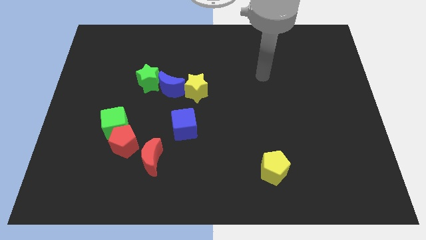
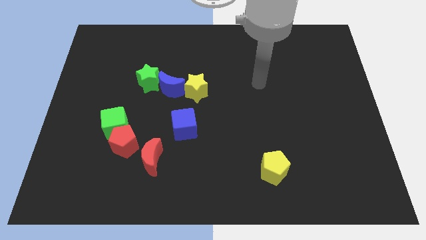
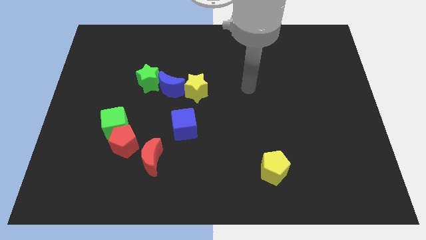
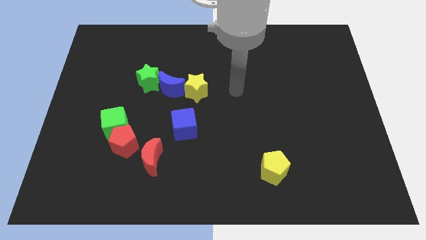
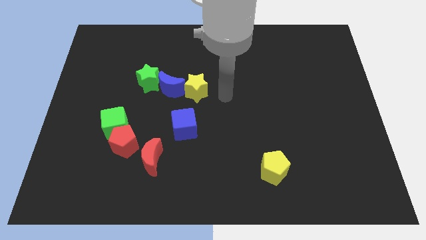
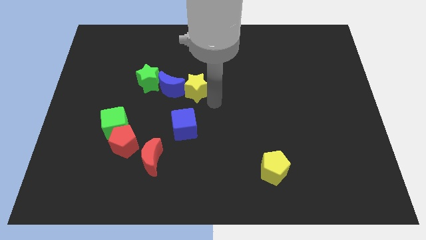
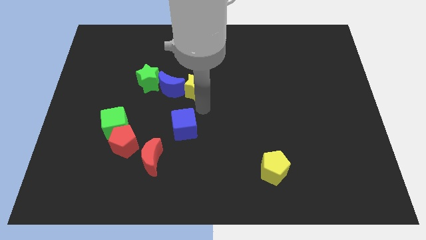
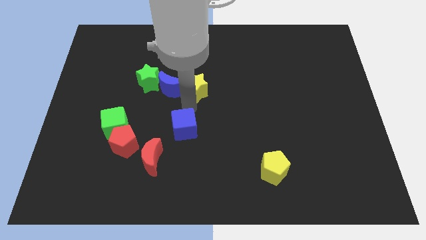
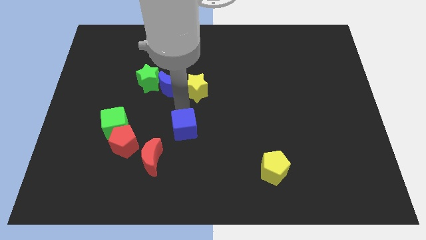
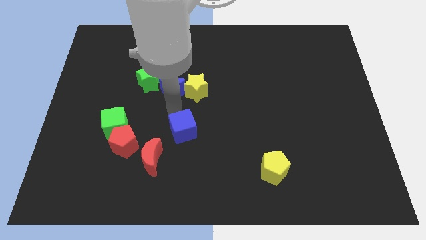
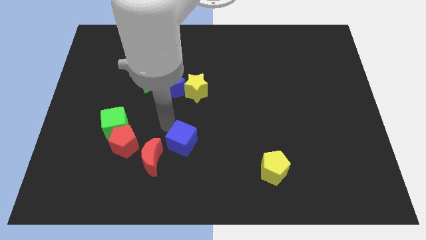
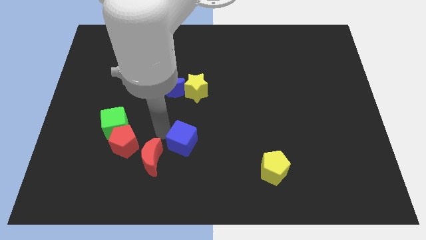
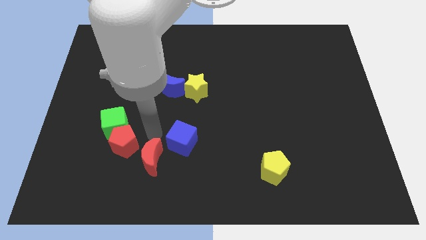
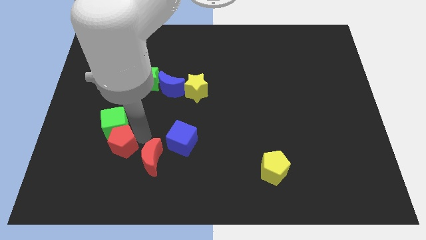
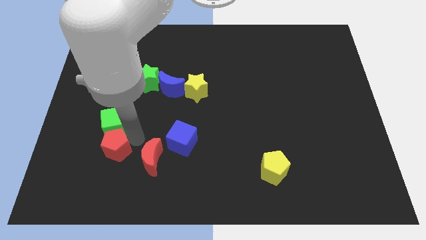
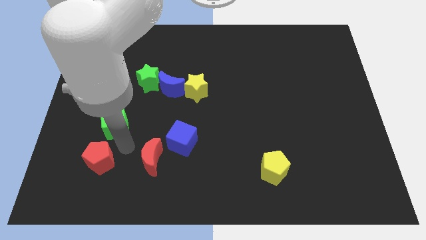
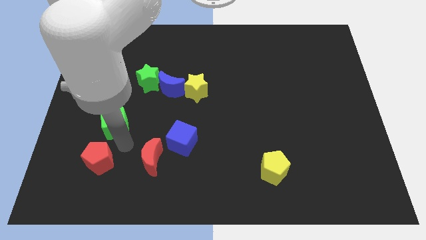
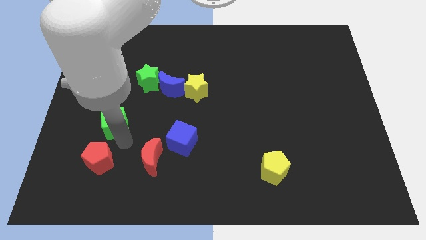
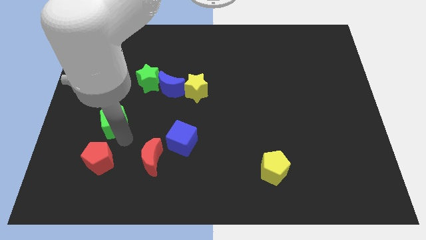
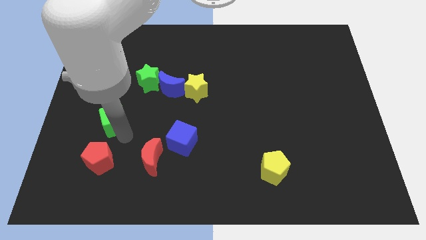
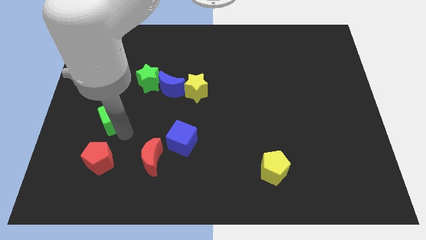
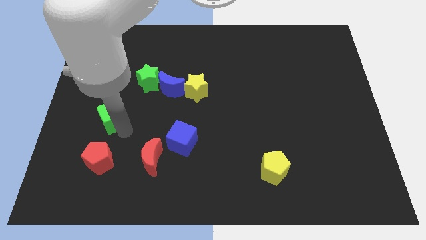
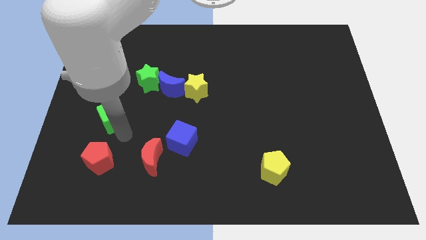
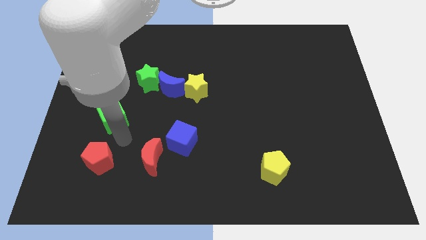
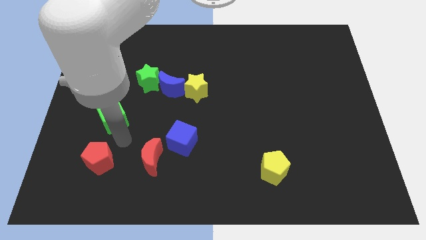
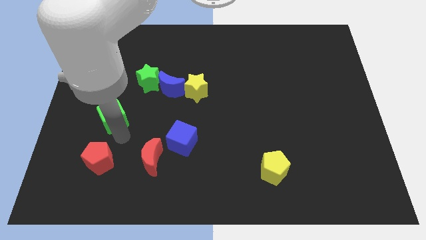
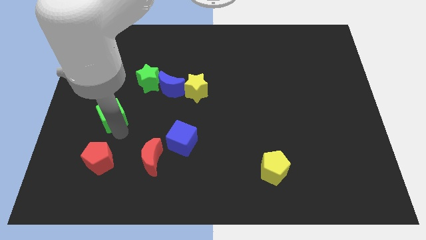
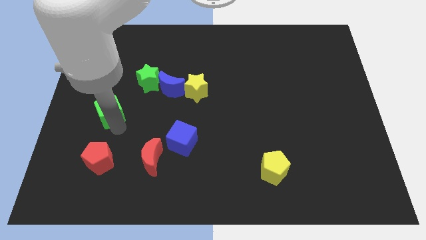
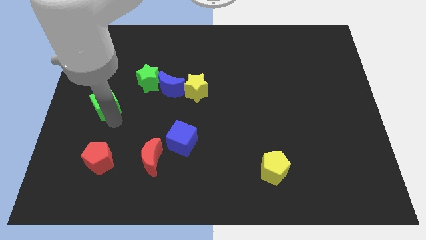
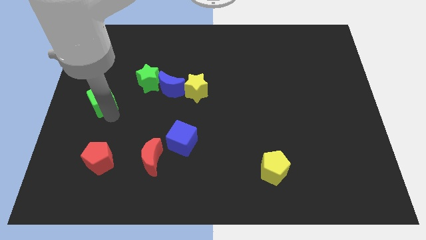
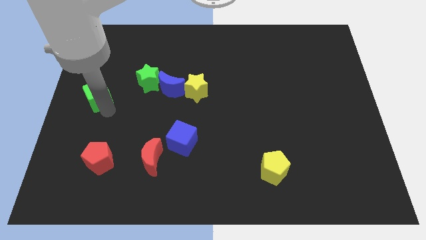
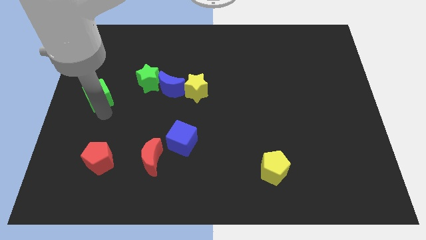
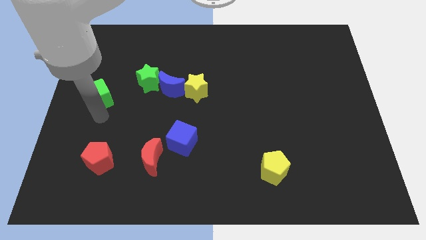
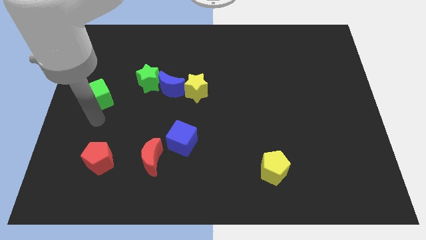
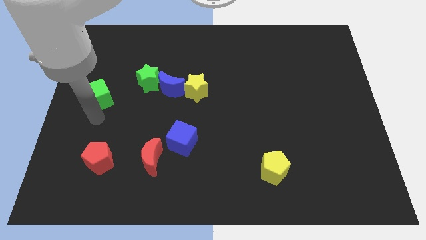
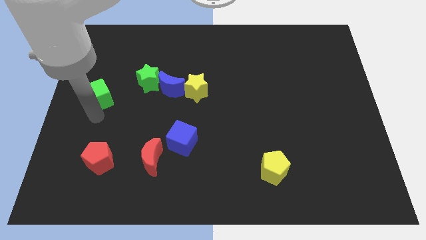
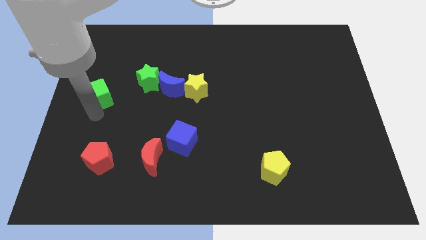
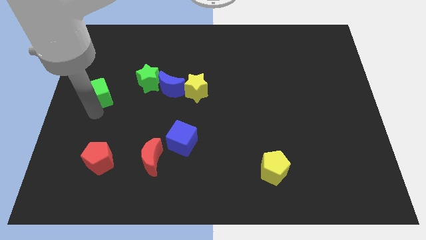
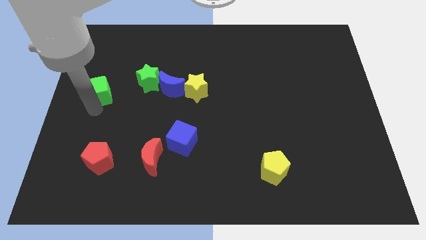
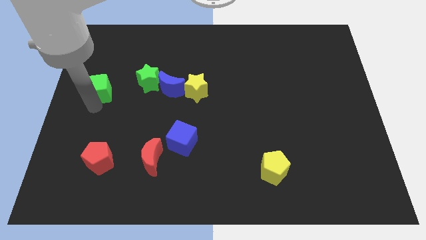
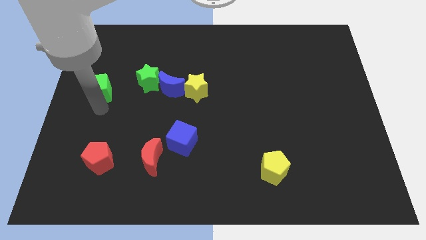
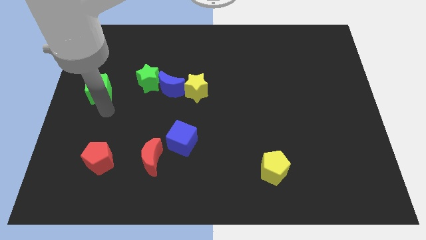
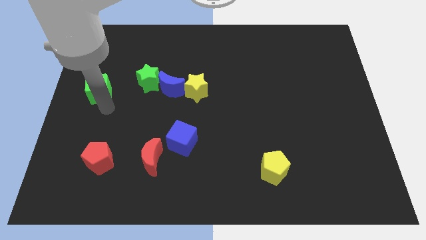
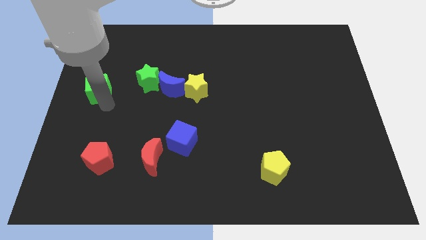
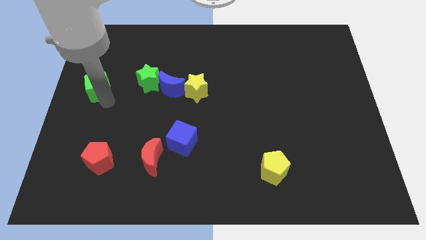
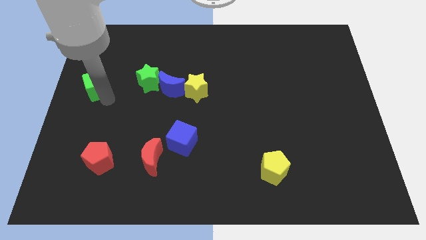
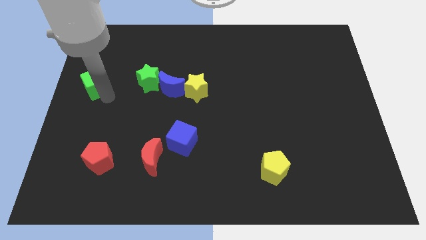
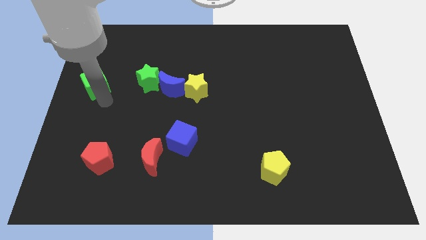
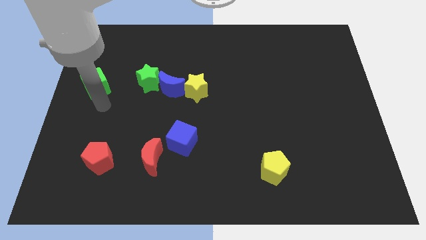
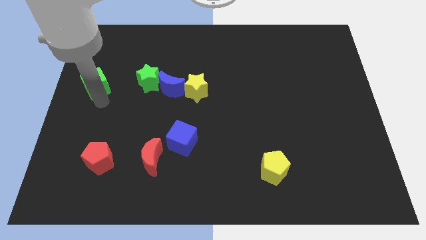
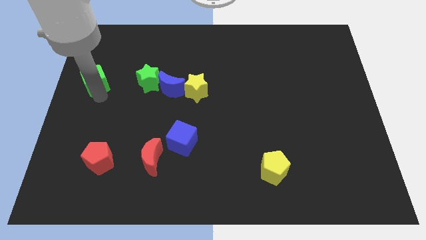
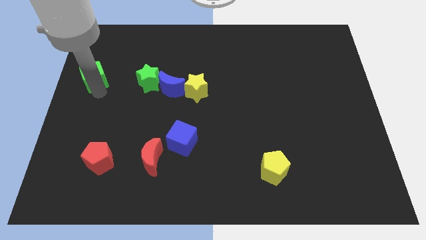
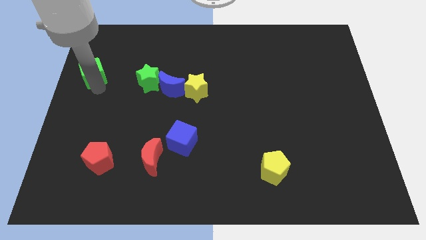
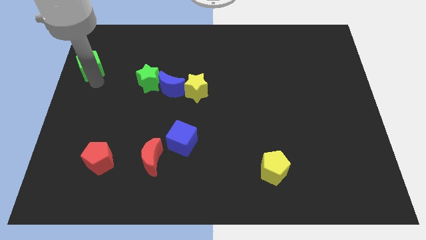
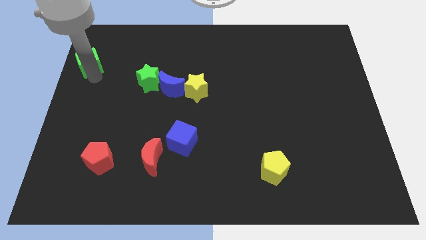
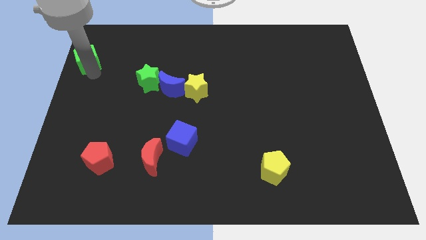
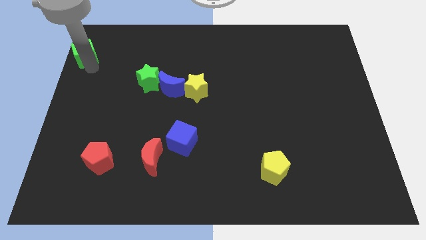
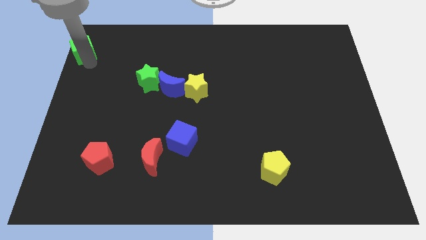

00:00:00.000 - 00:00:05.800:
slide the green cube to the upper left corner

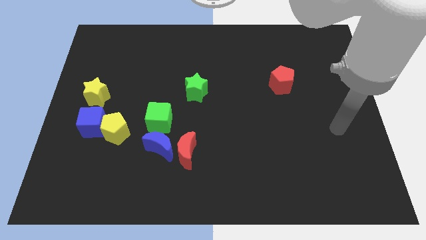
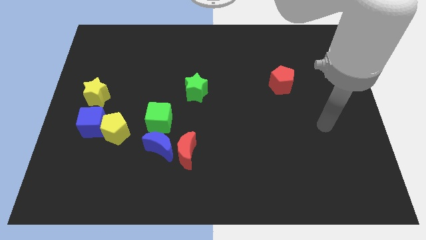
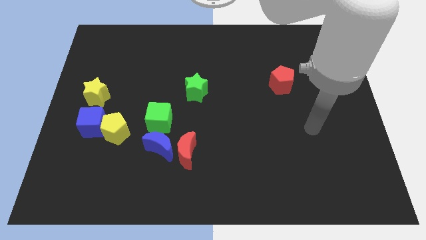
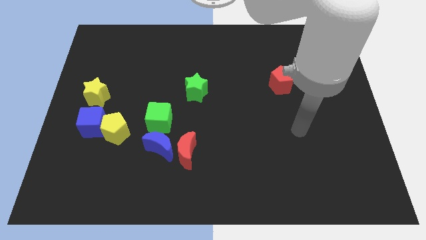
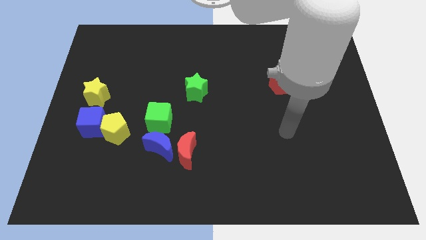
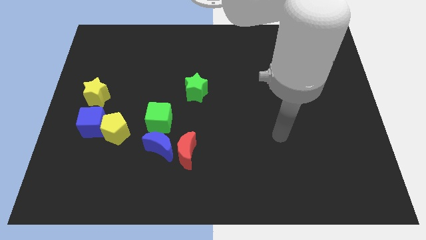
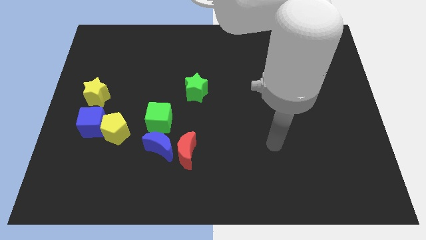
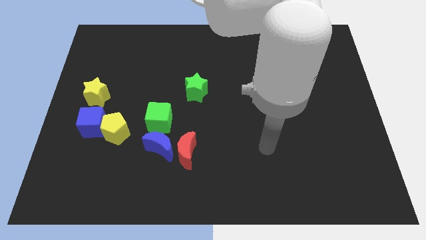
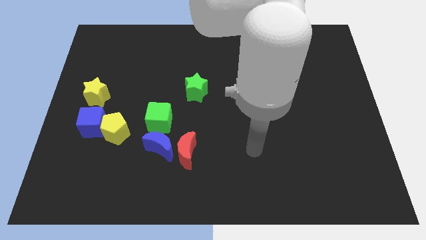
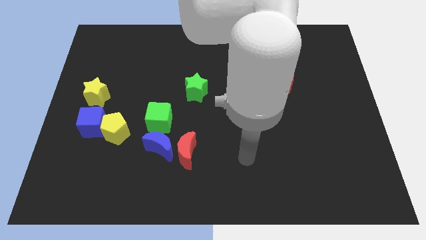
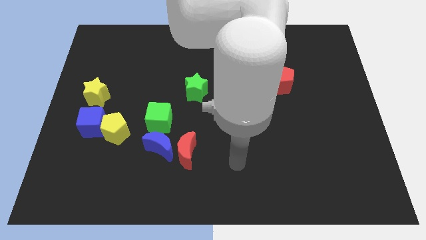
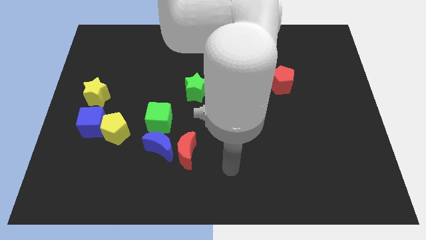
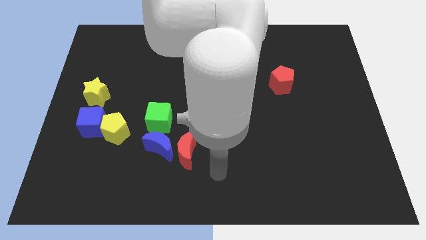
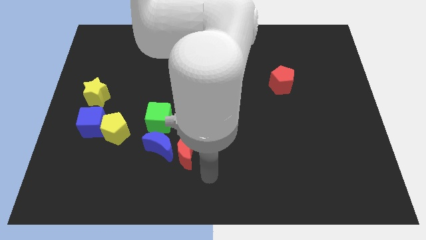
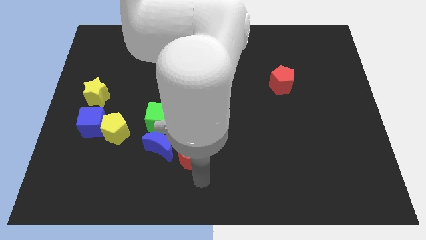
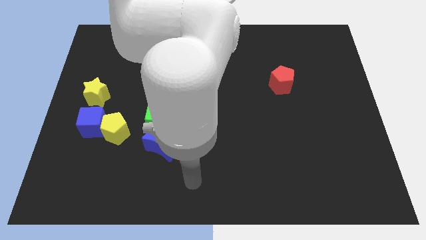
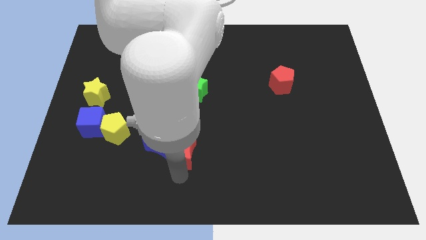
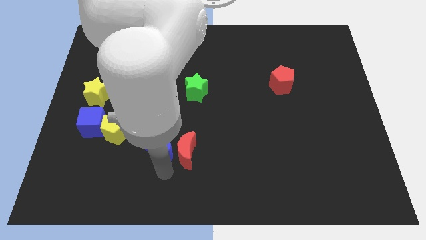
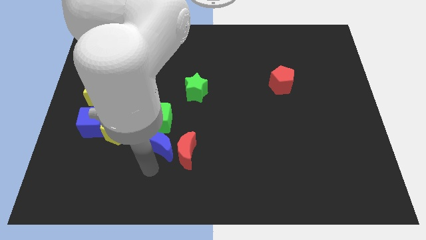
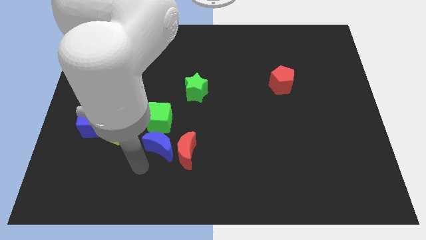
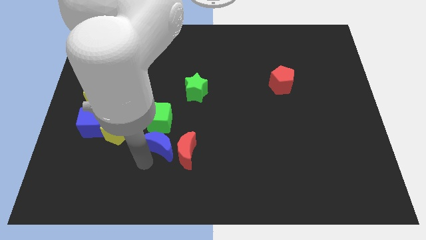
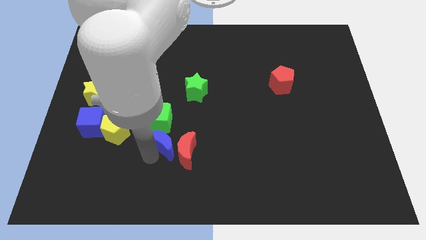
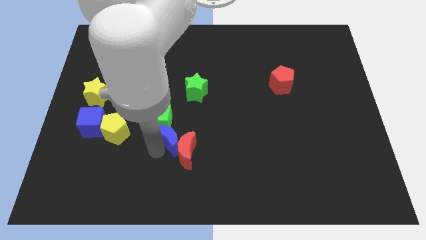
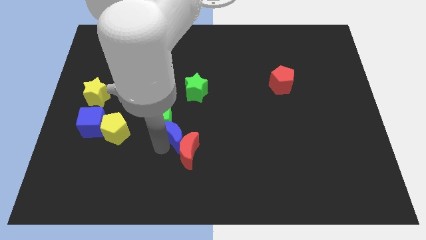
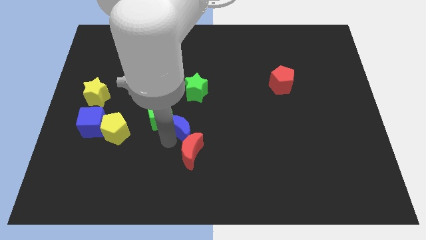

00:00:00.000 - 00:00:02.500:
slide the blue moon to the middle
